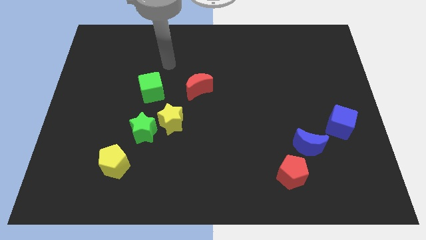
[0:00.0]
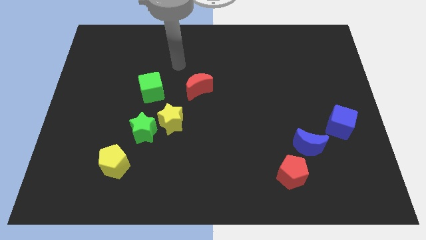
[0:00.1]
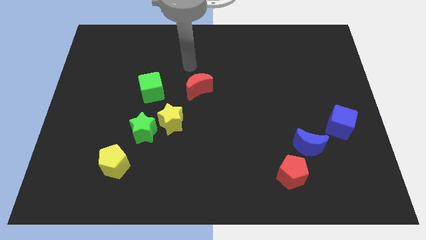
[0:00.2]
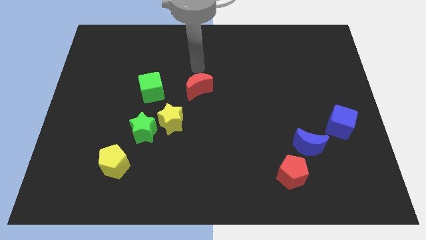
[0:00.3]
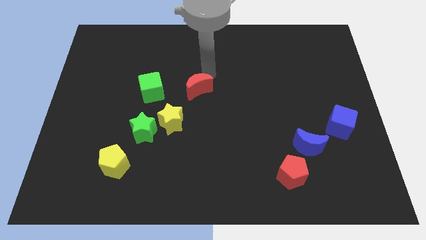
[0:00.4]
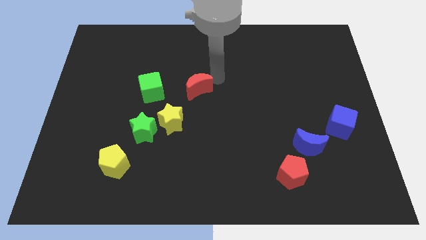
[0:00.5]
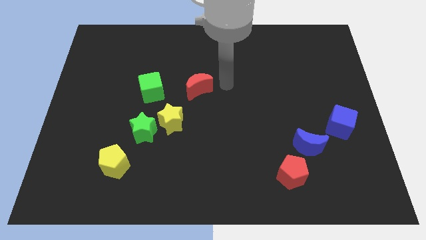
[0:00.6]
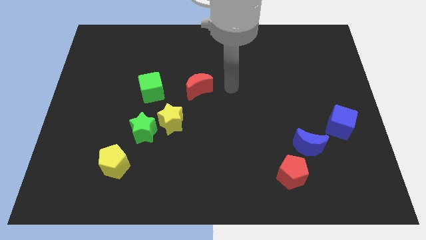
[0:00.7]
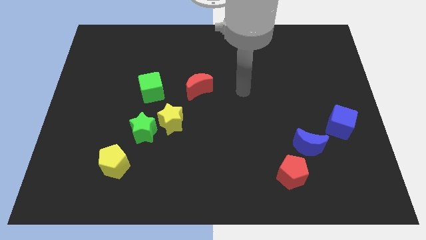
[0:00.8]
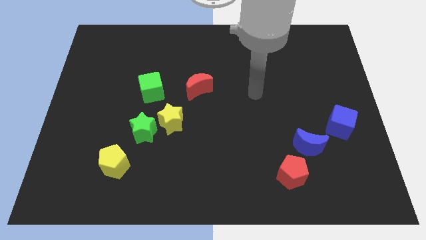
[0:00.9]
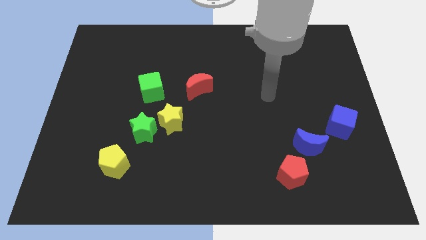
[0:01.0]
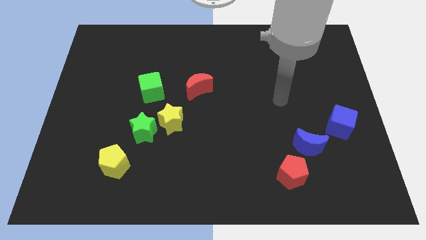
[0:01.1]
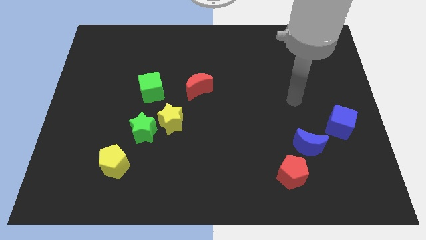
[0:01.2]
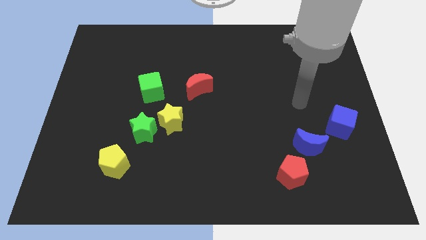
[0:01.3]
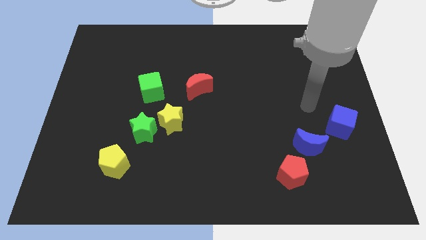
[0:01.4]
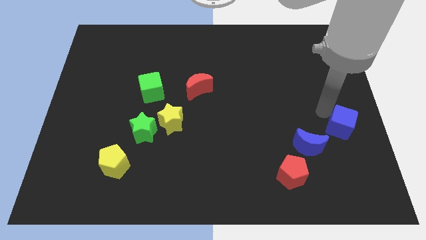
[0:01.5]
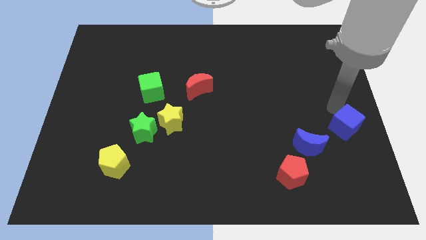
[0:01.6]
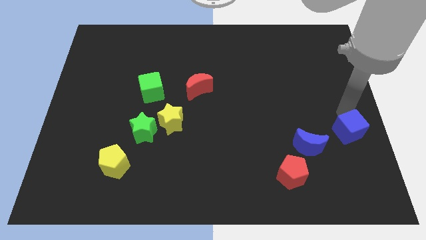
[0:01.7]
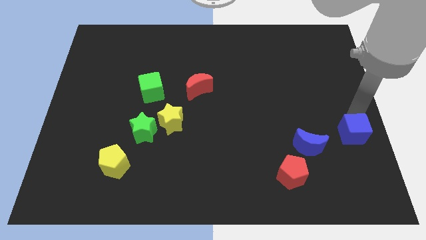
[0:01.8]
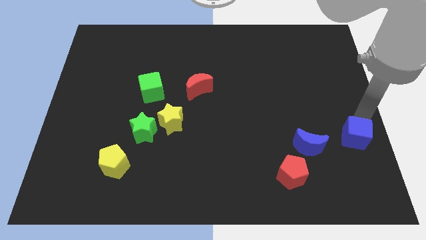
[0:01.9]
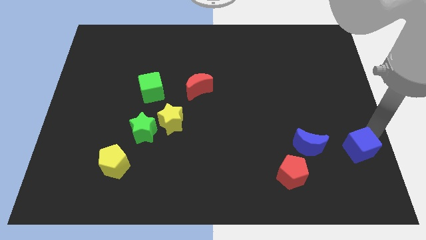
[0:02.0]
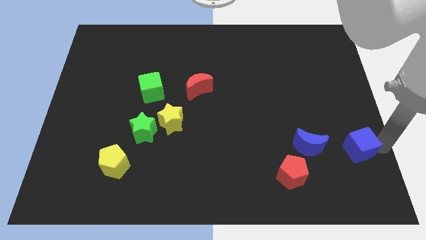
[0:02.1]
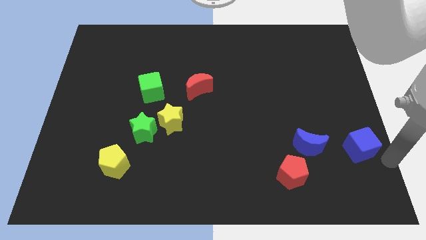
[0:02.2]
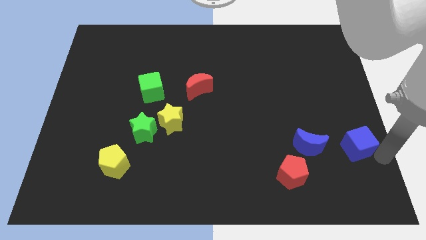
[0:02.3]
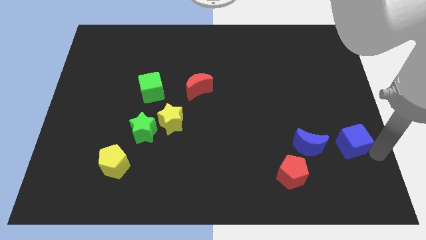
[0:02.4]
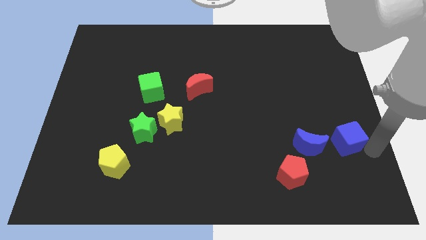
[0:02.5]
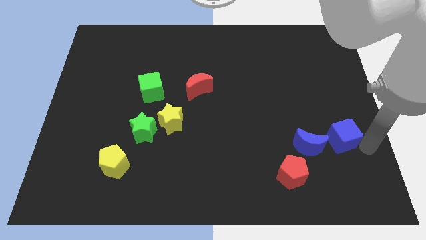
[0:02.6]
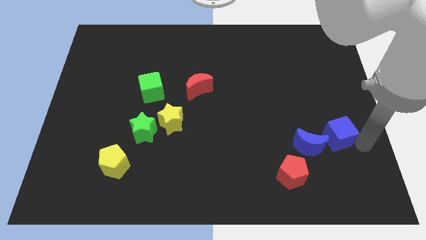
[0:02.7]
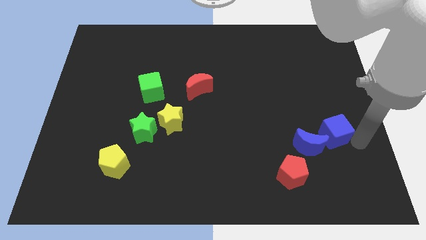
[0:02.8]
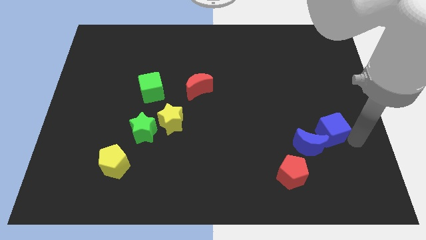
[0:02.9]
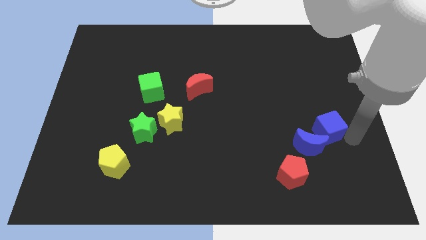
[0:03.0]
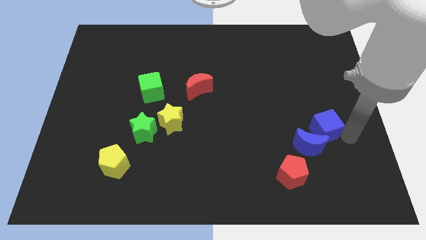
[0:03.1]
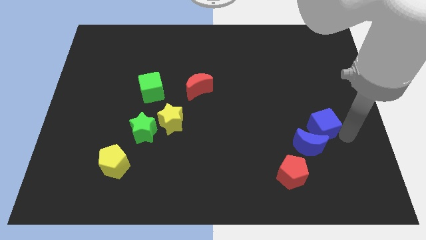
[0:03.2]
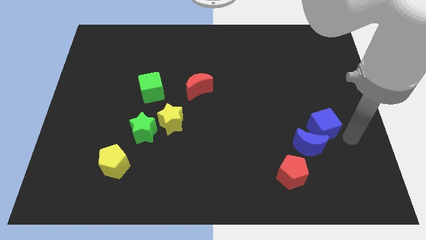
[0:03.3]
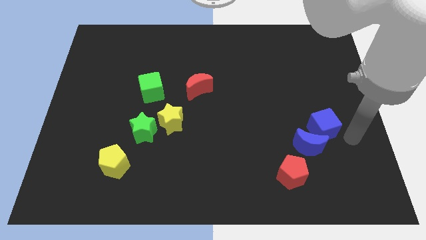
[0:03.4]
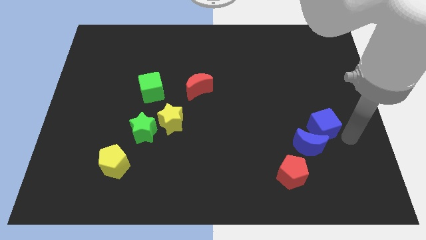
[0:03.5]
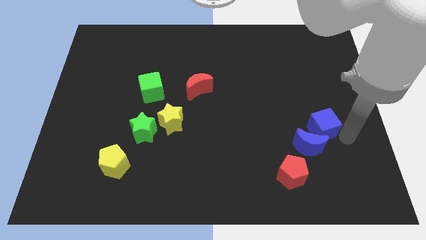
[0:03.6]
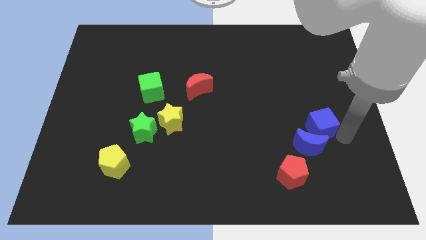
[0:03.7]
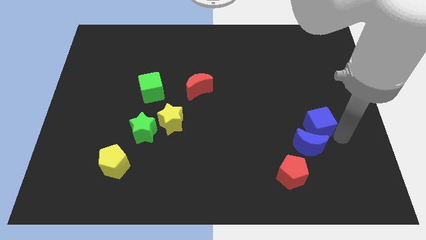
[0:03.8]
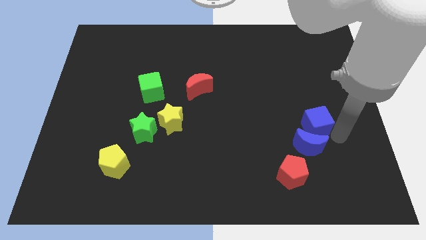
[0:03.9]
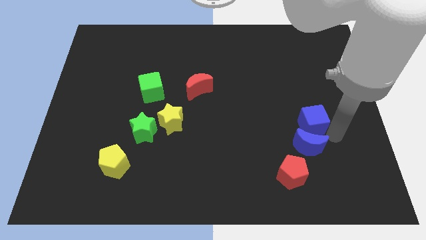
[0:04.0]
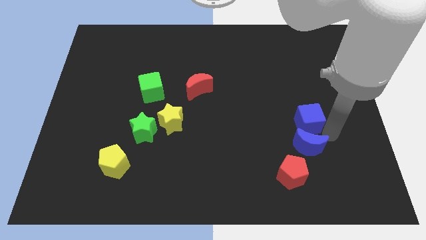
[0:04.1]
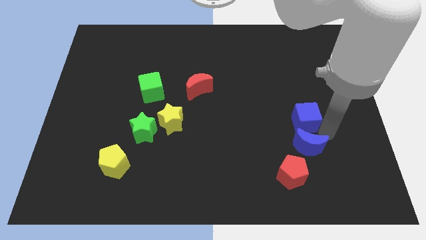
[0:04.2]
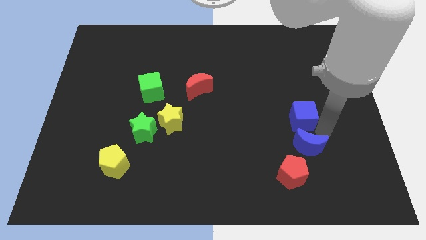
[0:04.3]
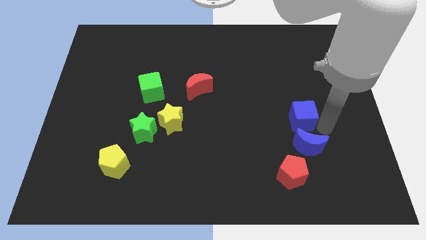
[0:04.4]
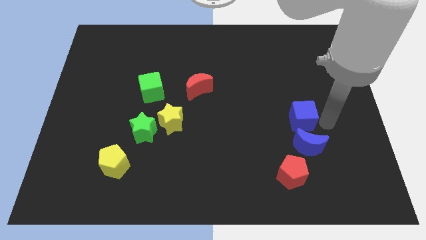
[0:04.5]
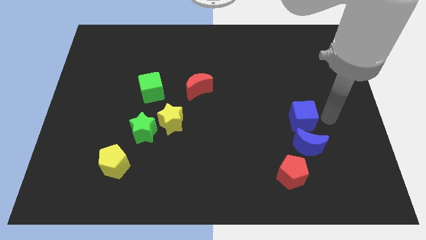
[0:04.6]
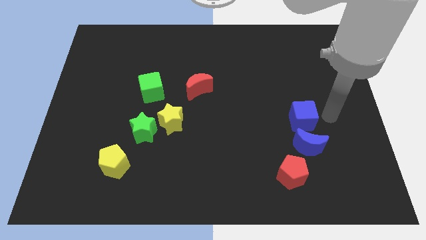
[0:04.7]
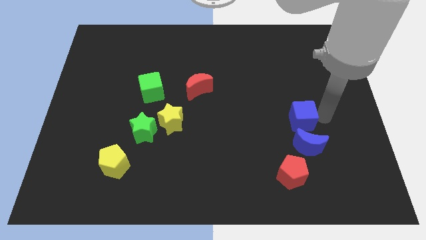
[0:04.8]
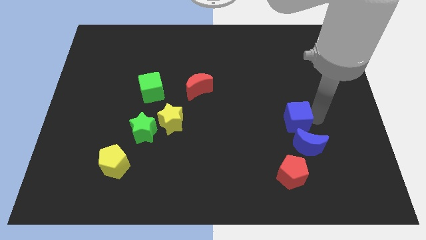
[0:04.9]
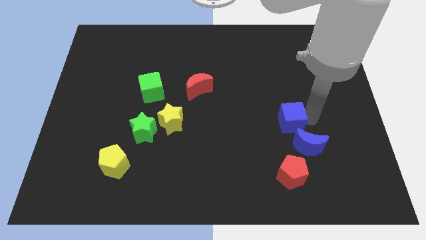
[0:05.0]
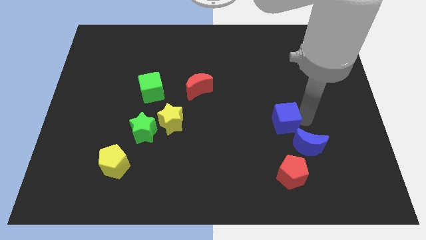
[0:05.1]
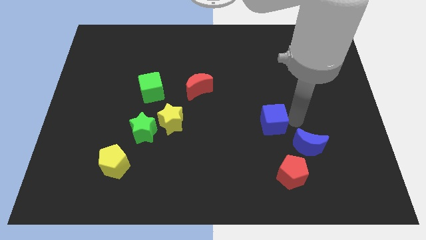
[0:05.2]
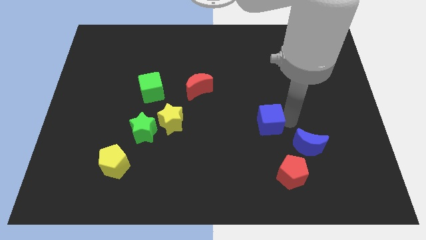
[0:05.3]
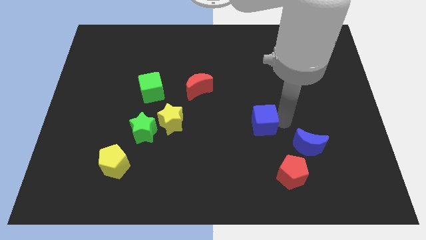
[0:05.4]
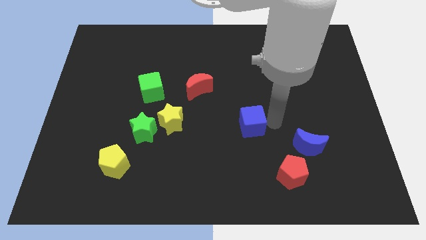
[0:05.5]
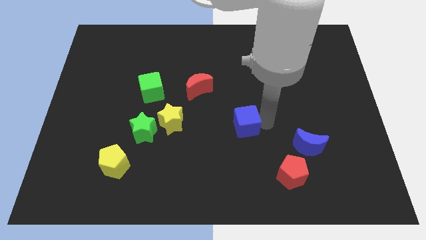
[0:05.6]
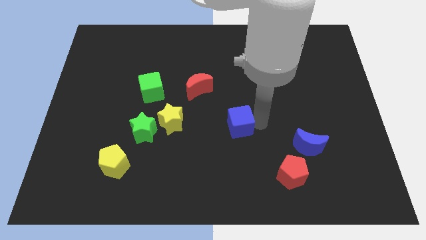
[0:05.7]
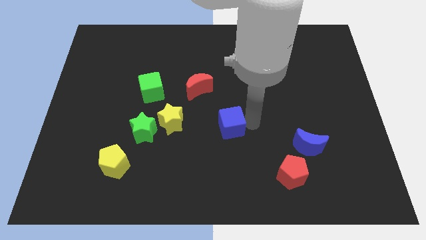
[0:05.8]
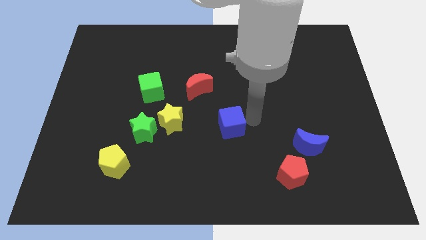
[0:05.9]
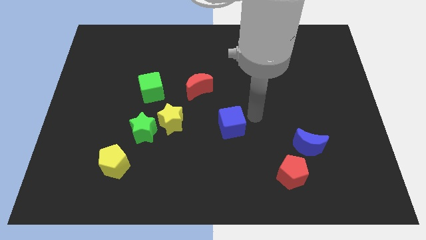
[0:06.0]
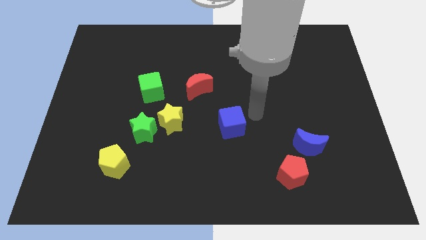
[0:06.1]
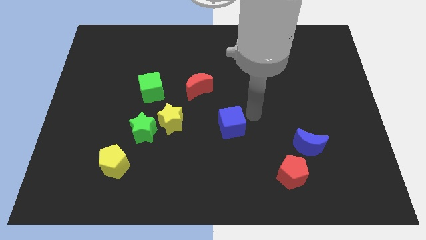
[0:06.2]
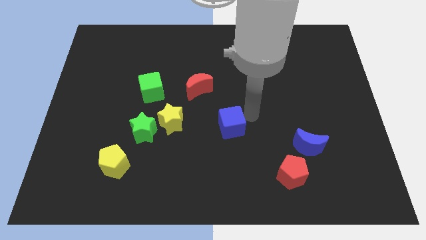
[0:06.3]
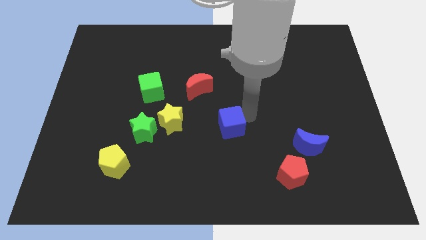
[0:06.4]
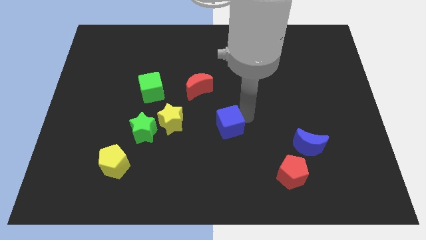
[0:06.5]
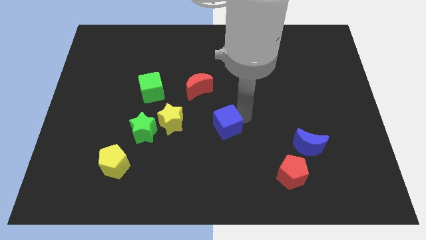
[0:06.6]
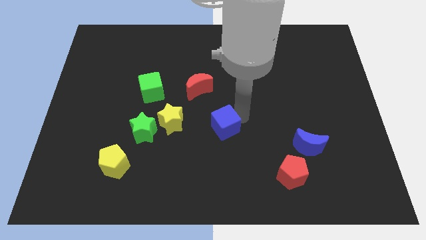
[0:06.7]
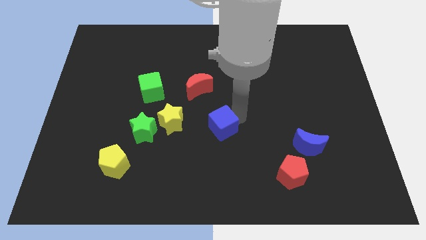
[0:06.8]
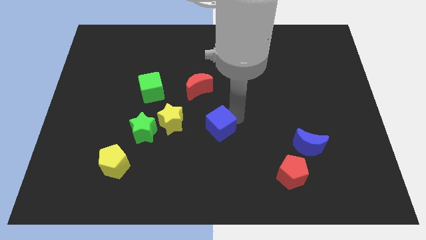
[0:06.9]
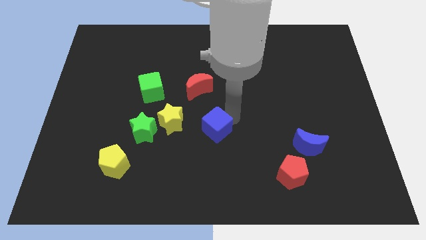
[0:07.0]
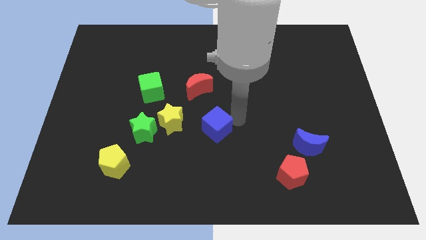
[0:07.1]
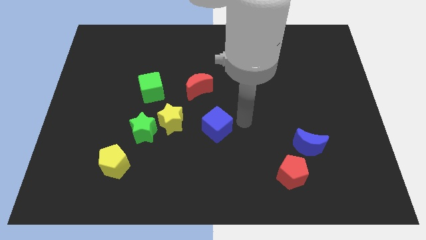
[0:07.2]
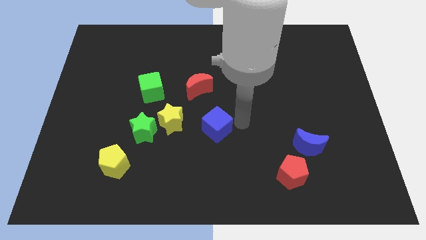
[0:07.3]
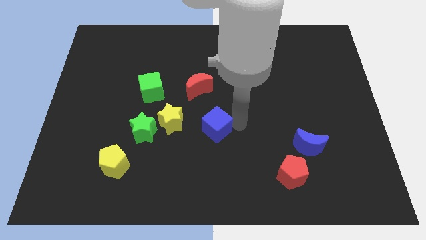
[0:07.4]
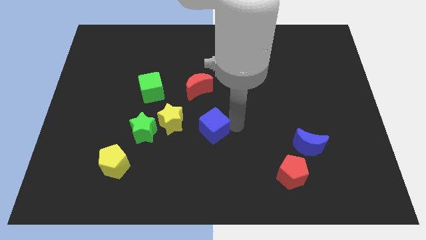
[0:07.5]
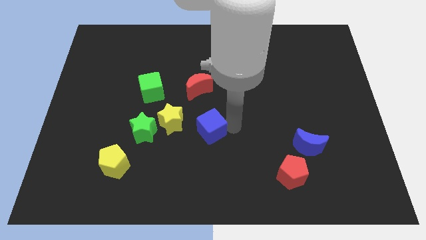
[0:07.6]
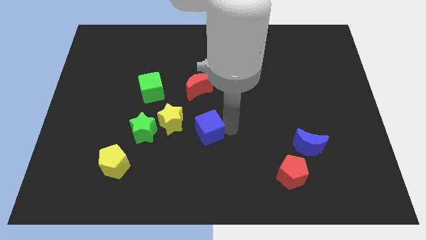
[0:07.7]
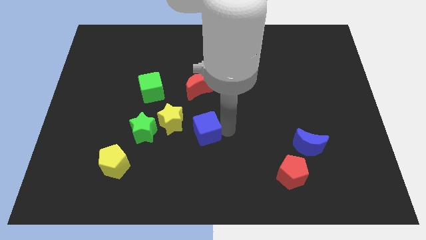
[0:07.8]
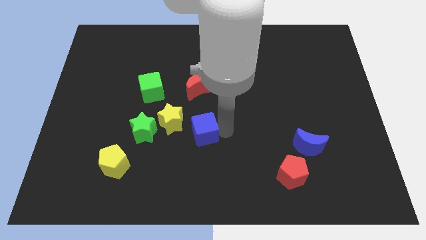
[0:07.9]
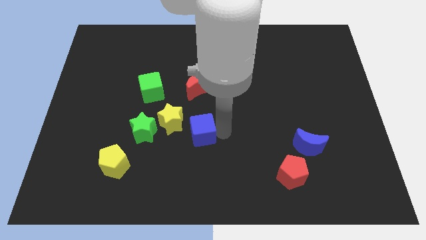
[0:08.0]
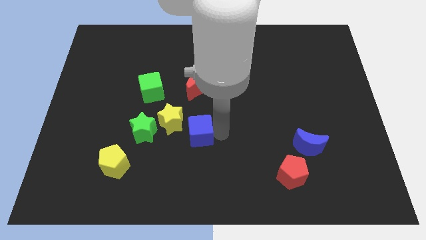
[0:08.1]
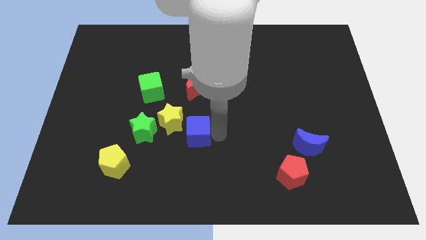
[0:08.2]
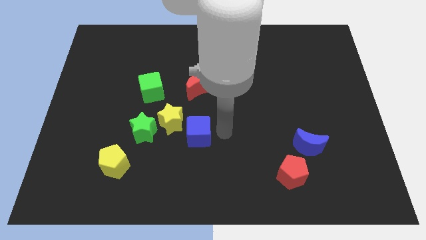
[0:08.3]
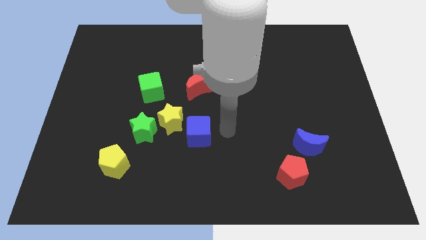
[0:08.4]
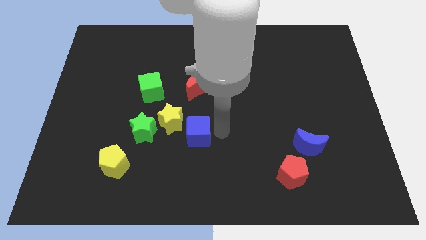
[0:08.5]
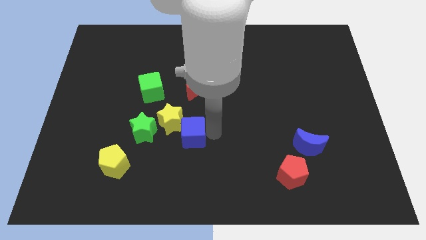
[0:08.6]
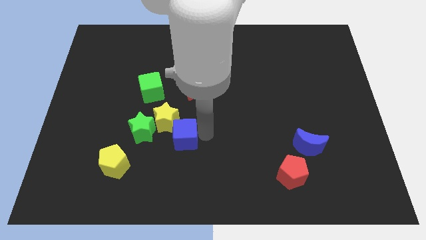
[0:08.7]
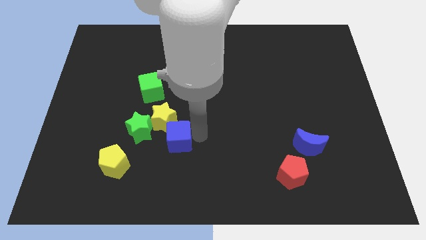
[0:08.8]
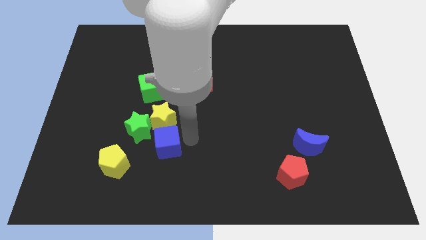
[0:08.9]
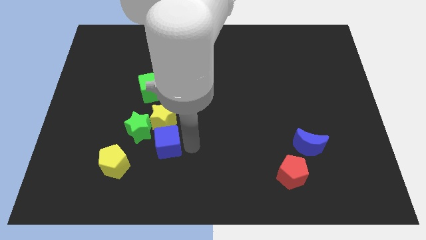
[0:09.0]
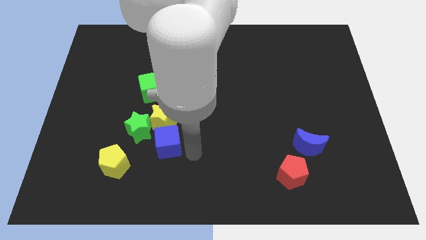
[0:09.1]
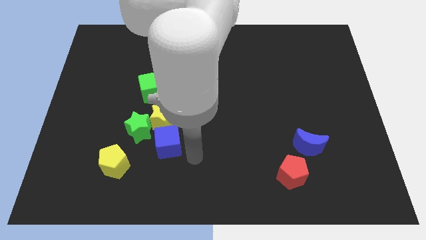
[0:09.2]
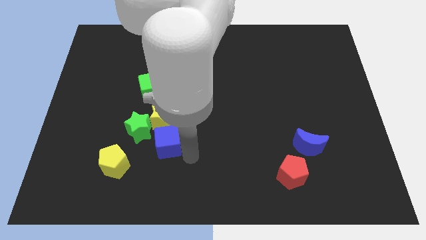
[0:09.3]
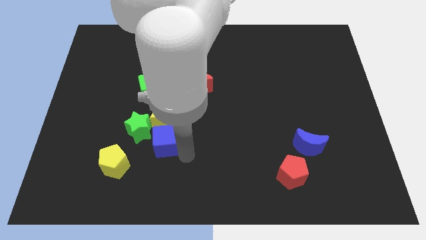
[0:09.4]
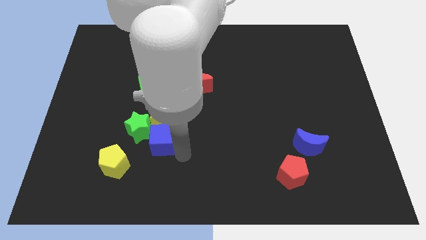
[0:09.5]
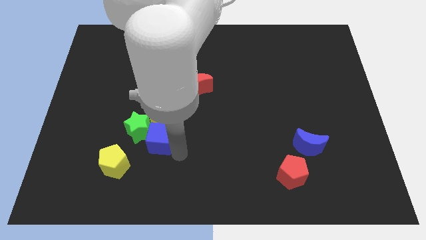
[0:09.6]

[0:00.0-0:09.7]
move the blue cube next to the green star
